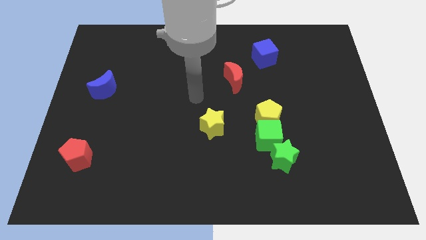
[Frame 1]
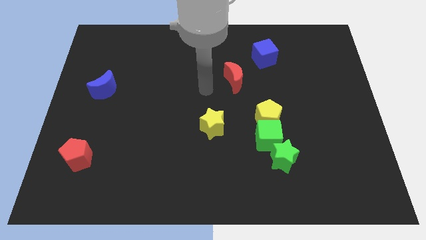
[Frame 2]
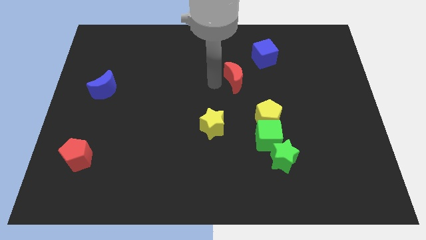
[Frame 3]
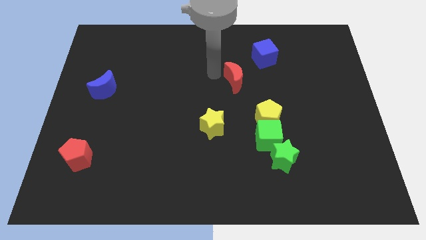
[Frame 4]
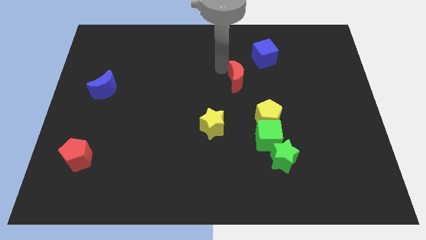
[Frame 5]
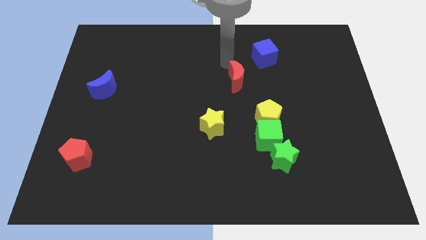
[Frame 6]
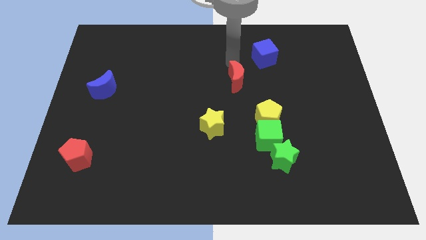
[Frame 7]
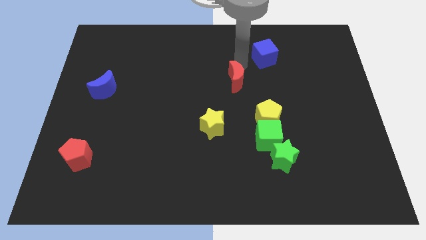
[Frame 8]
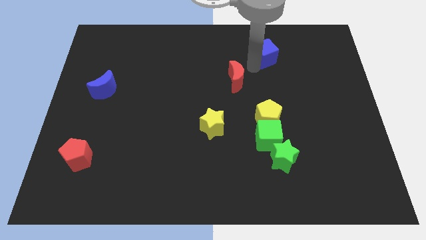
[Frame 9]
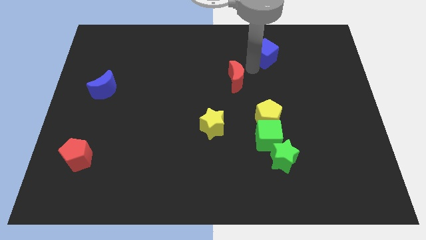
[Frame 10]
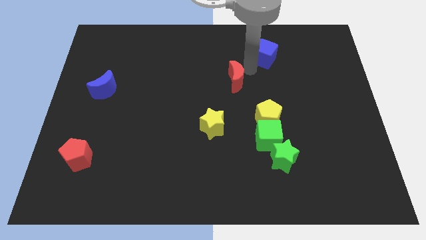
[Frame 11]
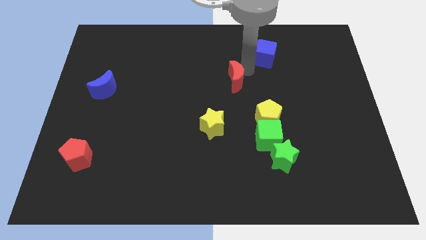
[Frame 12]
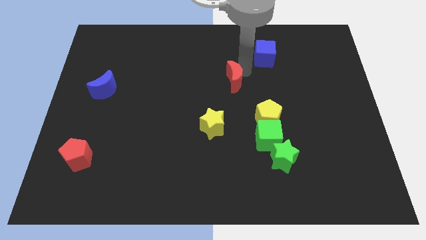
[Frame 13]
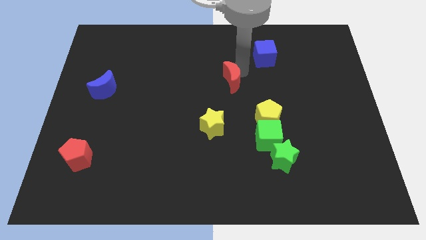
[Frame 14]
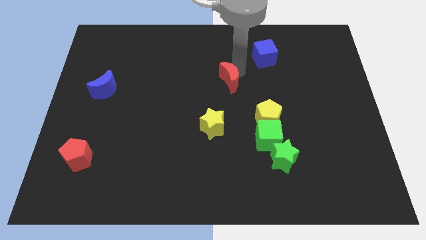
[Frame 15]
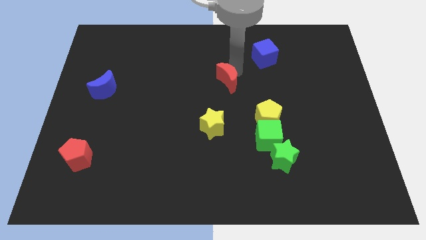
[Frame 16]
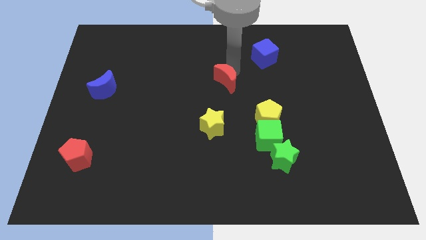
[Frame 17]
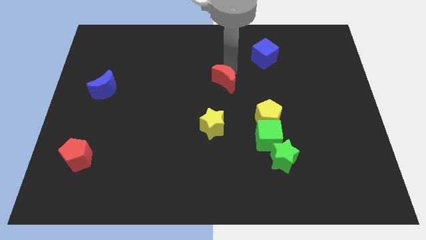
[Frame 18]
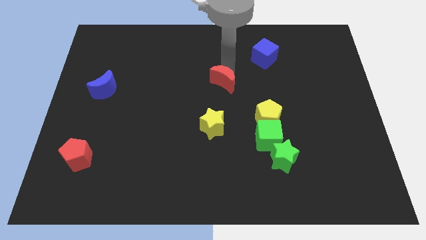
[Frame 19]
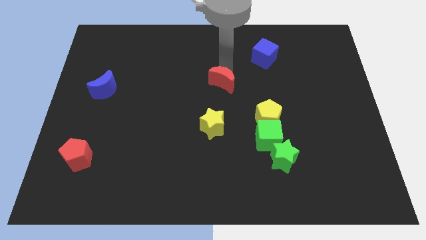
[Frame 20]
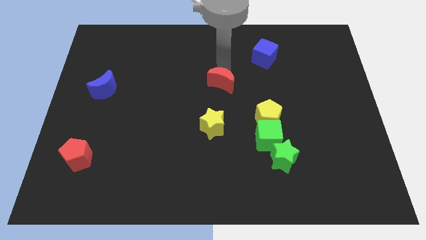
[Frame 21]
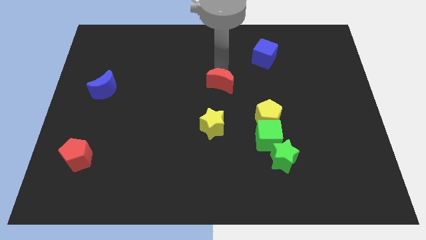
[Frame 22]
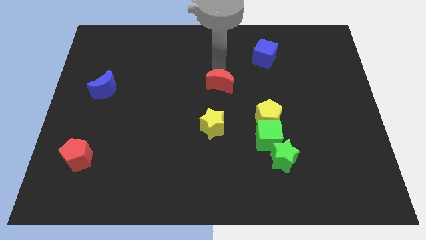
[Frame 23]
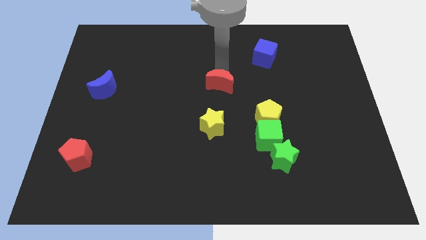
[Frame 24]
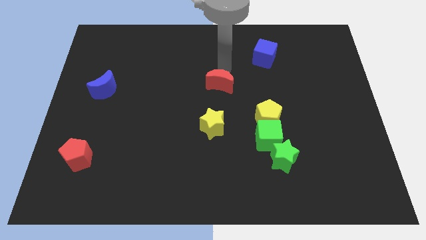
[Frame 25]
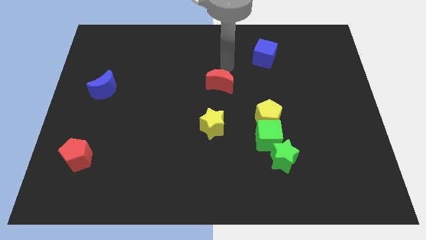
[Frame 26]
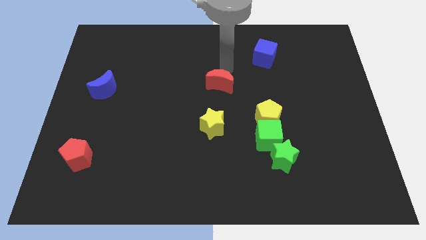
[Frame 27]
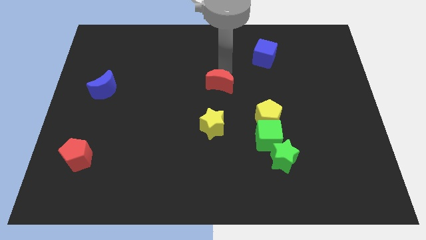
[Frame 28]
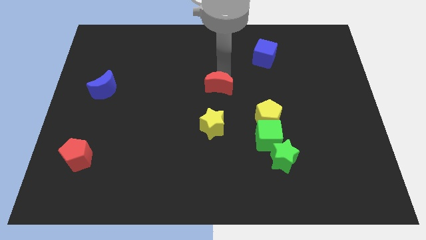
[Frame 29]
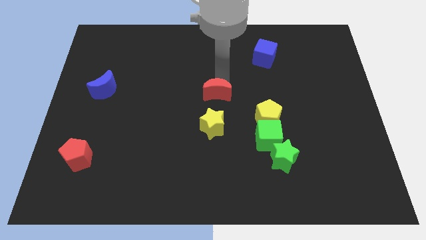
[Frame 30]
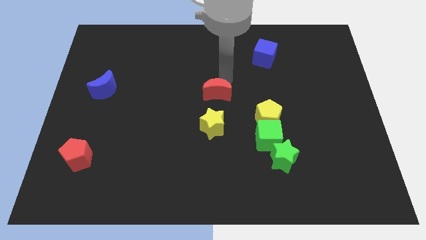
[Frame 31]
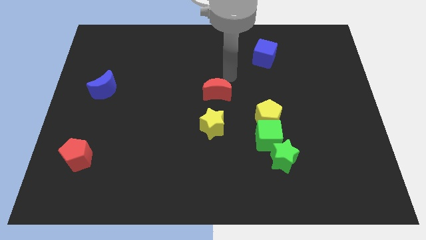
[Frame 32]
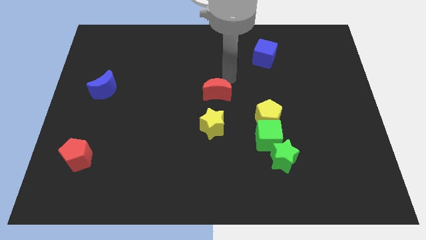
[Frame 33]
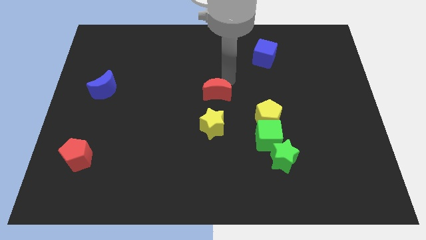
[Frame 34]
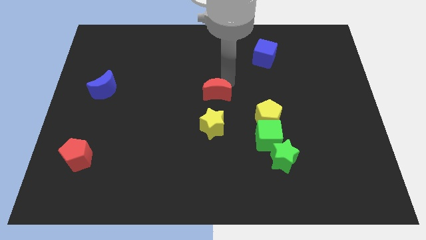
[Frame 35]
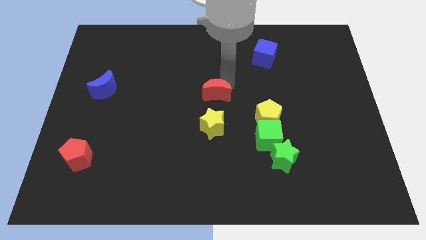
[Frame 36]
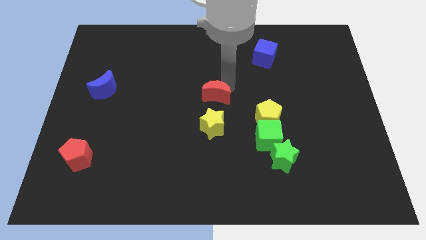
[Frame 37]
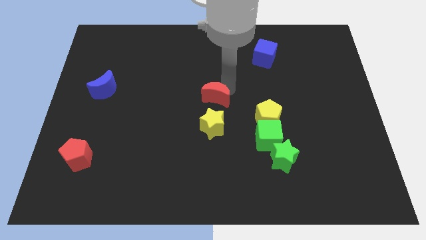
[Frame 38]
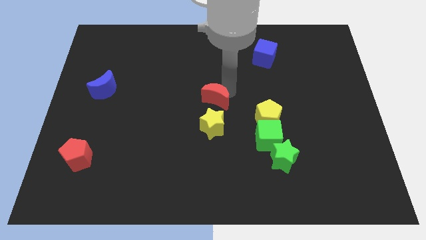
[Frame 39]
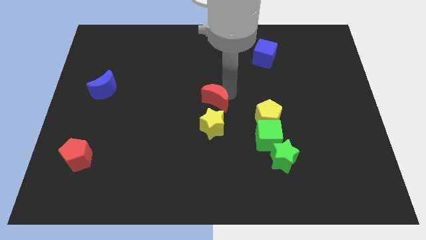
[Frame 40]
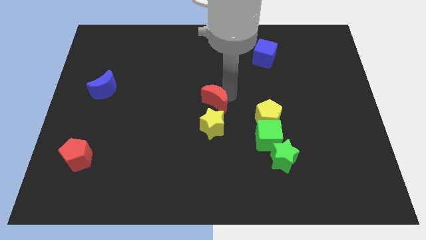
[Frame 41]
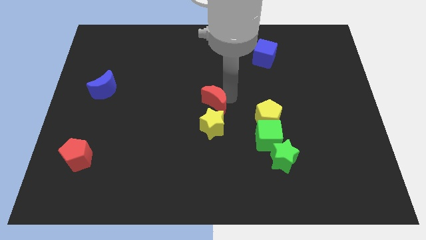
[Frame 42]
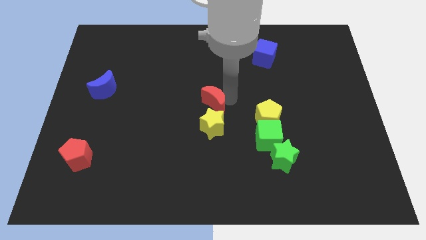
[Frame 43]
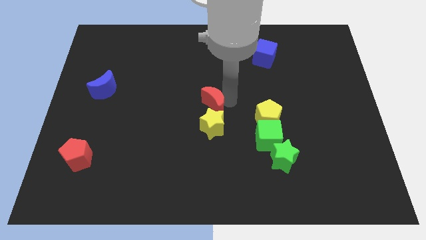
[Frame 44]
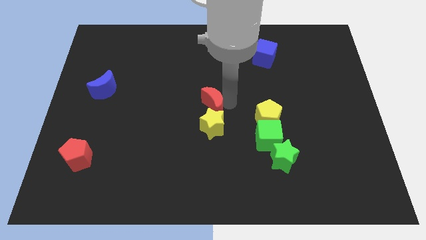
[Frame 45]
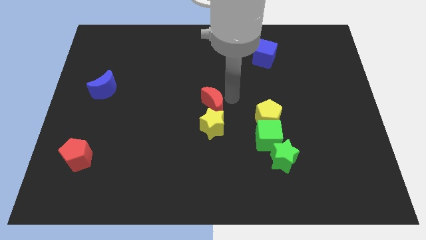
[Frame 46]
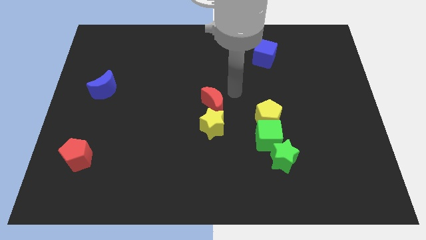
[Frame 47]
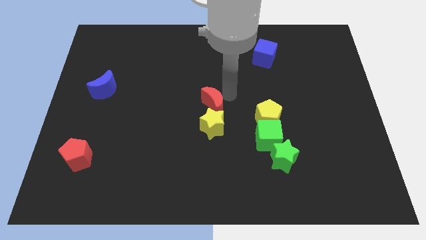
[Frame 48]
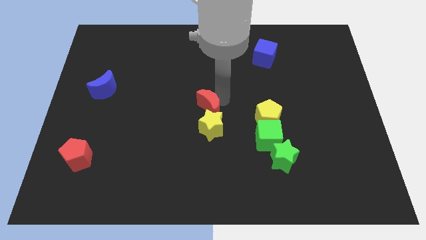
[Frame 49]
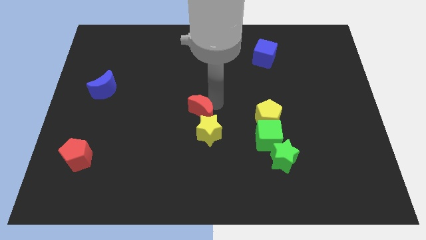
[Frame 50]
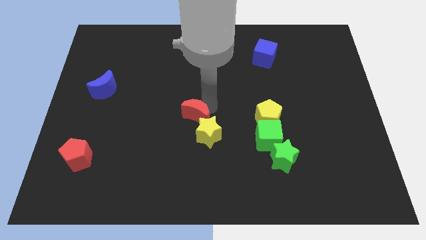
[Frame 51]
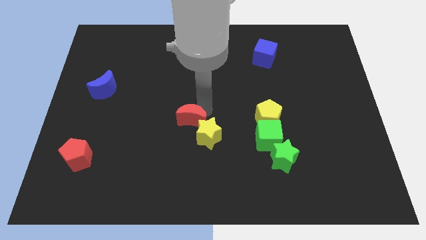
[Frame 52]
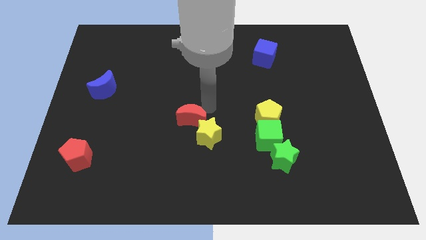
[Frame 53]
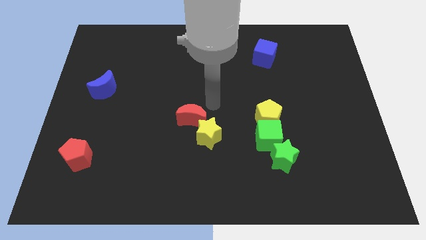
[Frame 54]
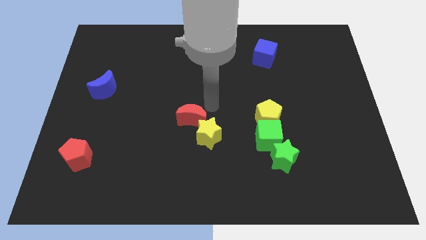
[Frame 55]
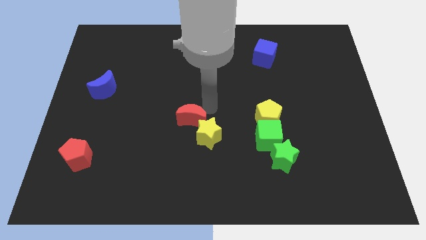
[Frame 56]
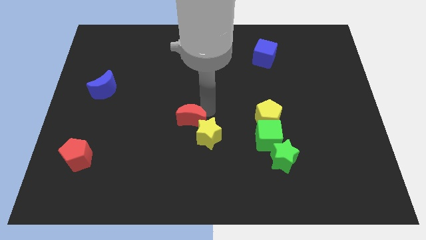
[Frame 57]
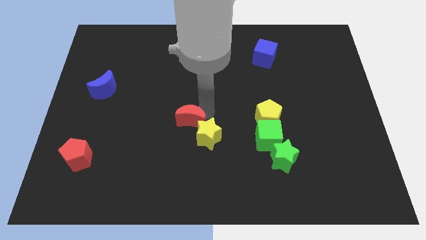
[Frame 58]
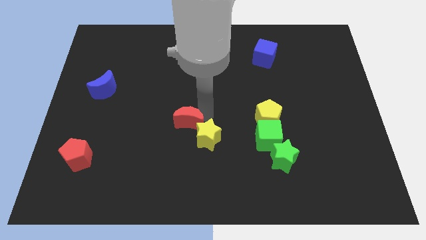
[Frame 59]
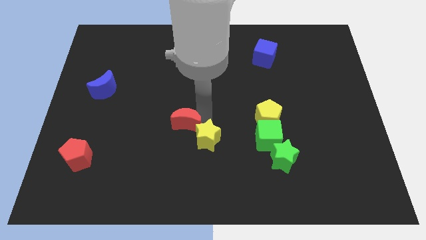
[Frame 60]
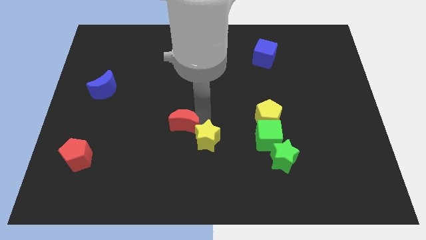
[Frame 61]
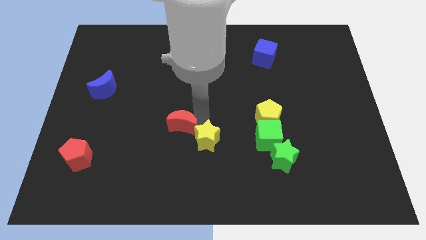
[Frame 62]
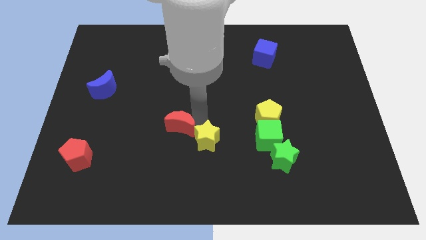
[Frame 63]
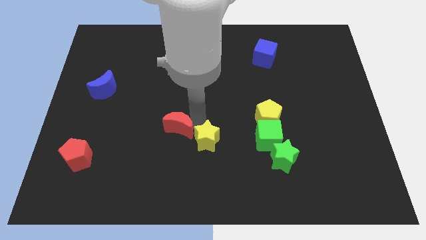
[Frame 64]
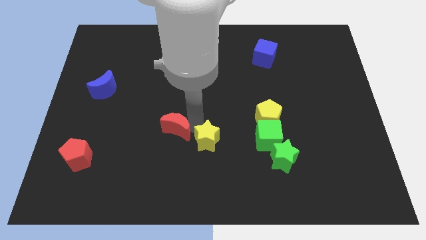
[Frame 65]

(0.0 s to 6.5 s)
slide the red moon down and left diagonally

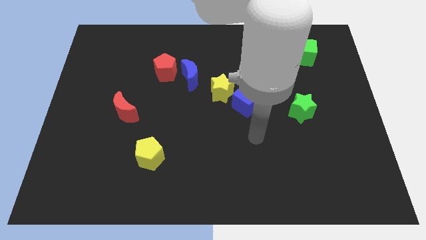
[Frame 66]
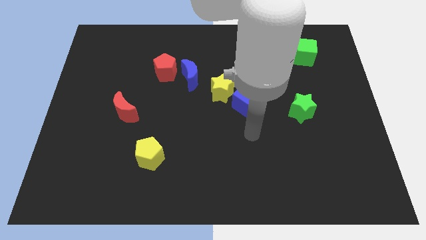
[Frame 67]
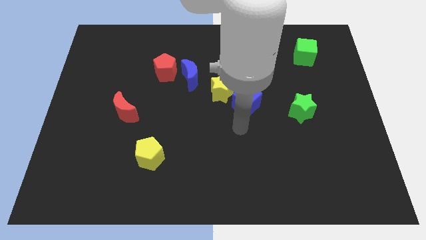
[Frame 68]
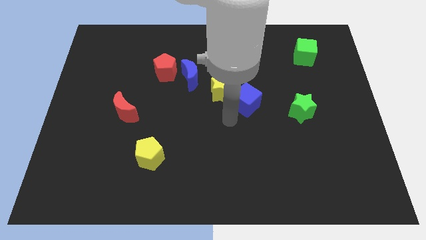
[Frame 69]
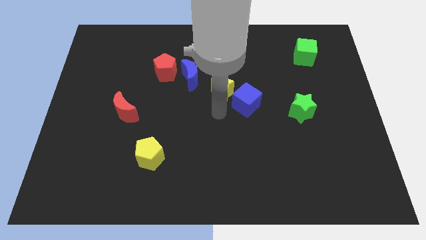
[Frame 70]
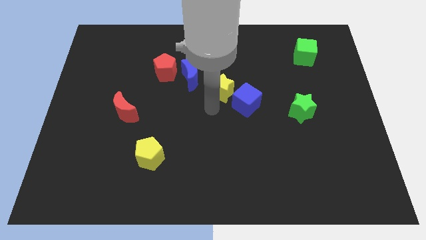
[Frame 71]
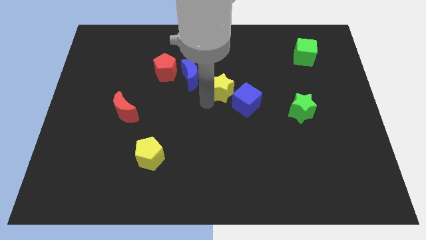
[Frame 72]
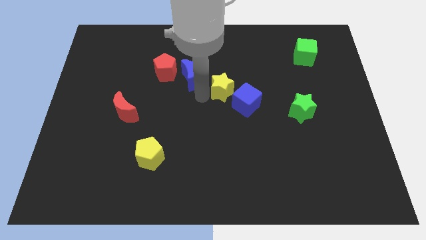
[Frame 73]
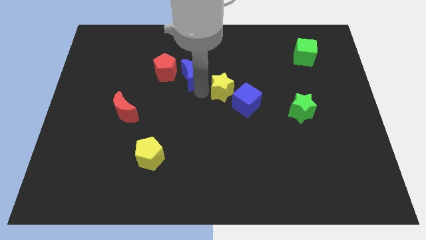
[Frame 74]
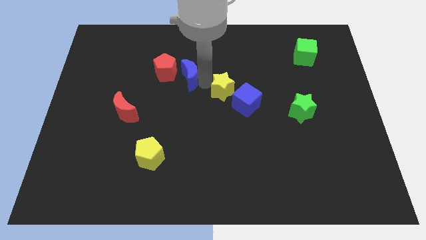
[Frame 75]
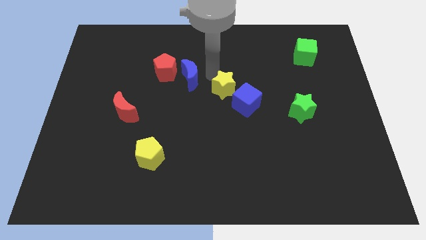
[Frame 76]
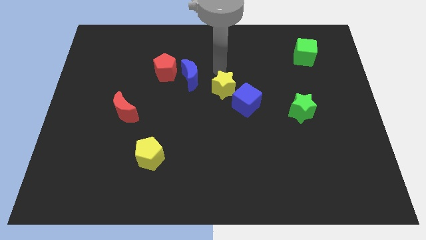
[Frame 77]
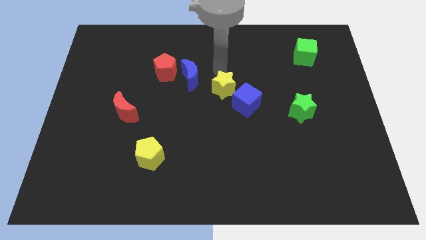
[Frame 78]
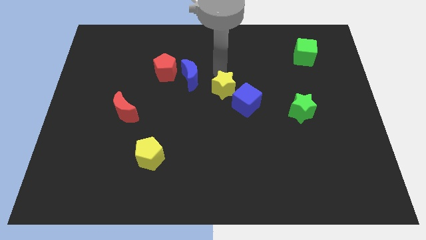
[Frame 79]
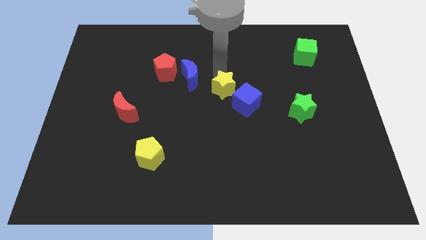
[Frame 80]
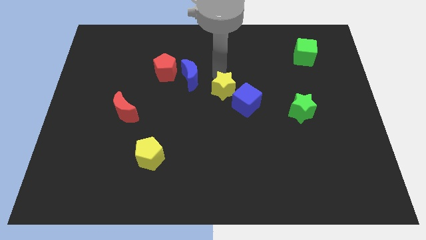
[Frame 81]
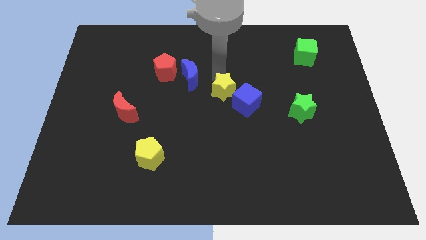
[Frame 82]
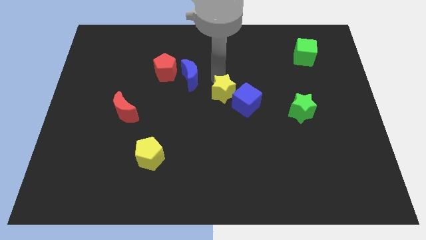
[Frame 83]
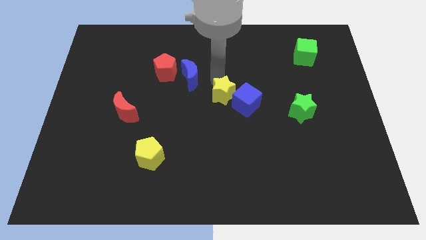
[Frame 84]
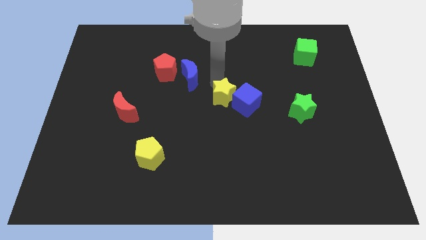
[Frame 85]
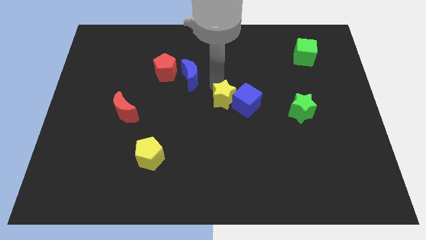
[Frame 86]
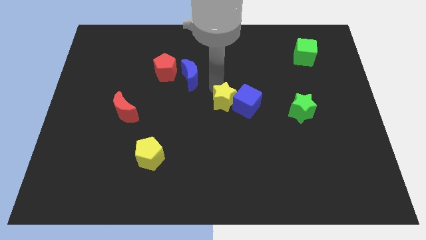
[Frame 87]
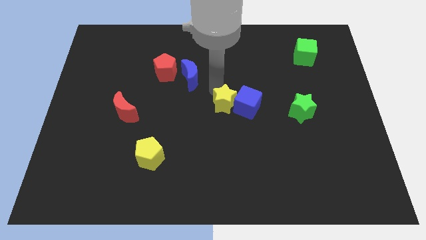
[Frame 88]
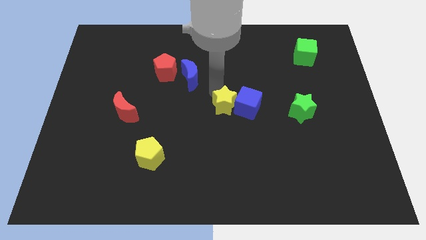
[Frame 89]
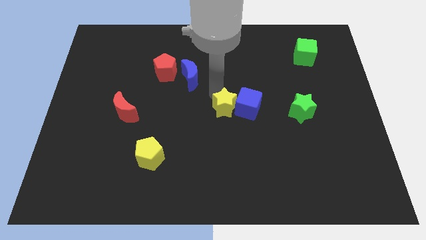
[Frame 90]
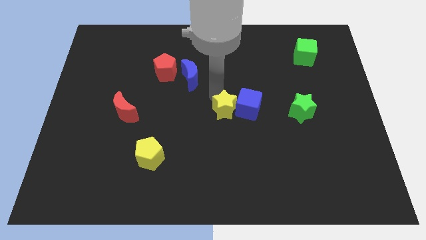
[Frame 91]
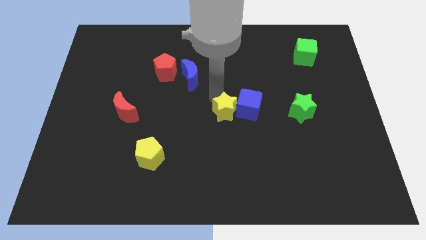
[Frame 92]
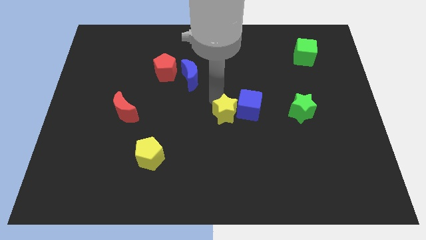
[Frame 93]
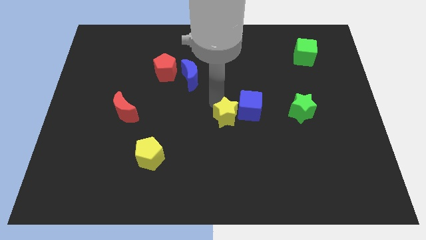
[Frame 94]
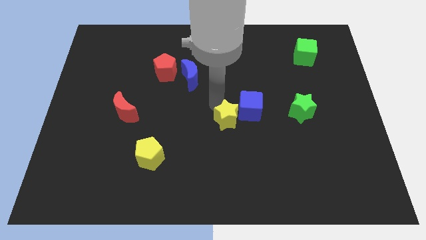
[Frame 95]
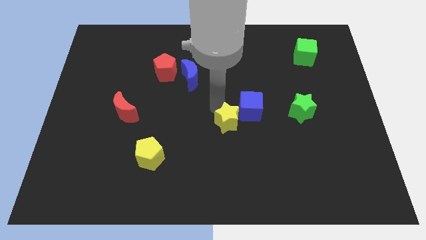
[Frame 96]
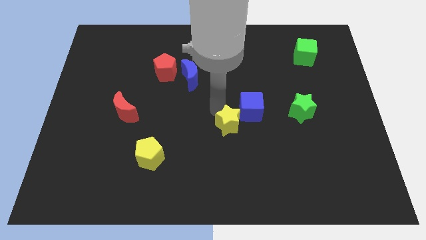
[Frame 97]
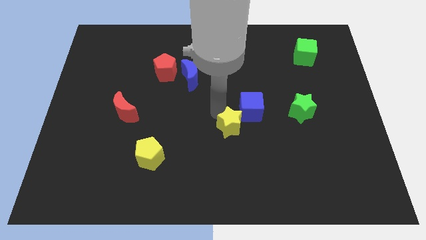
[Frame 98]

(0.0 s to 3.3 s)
move the yellow star a little downwards and to the right
